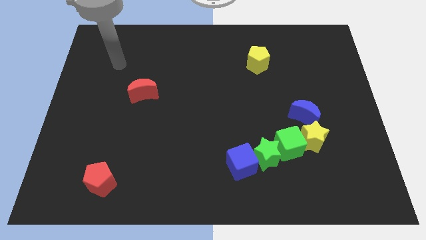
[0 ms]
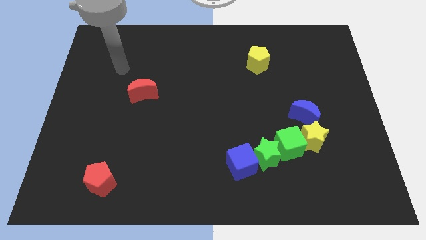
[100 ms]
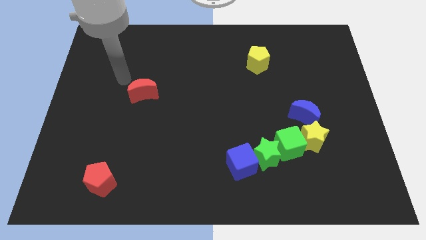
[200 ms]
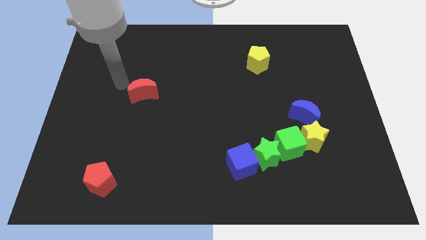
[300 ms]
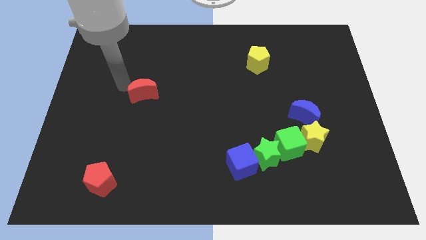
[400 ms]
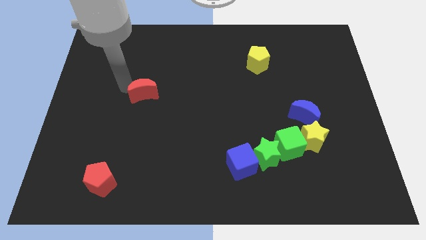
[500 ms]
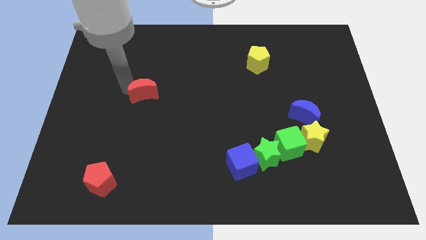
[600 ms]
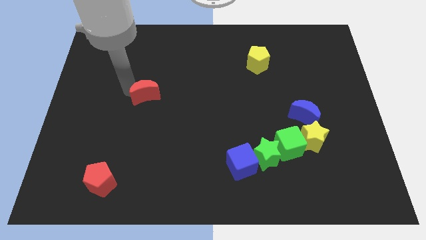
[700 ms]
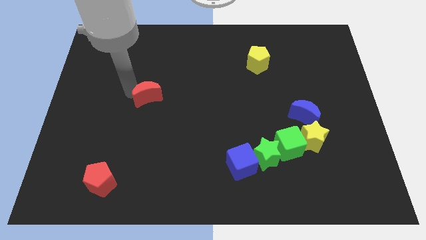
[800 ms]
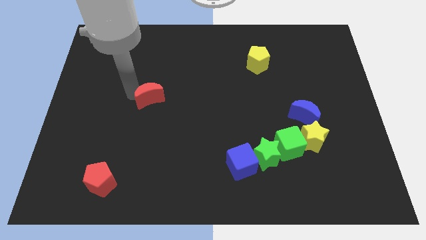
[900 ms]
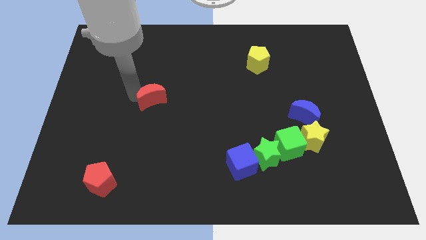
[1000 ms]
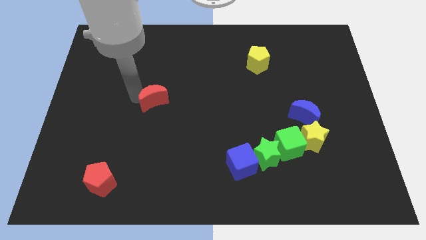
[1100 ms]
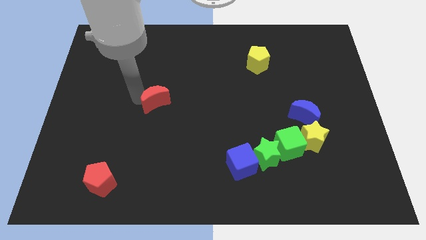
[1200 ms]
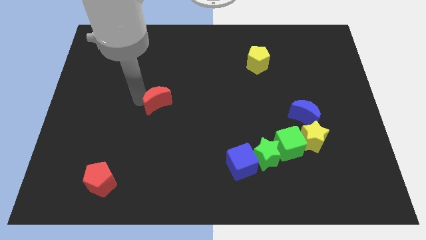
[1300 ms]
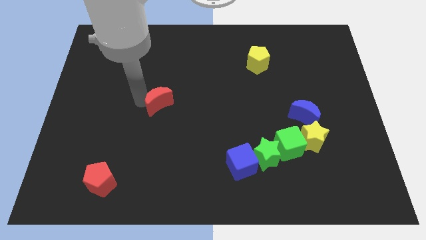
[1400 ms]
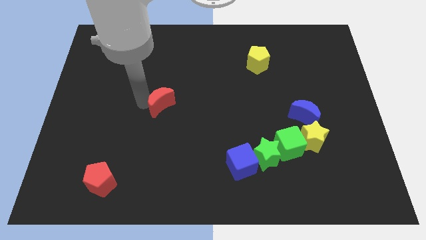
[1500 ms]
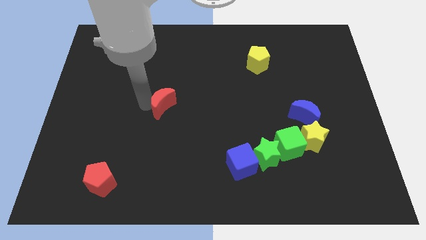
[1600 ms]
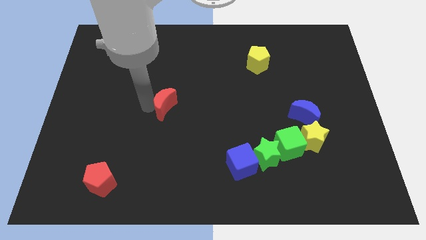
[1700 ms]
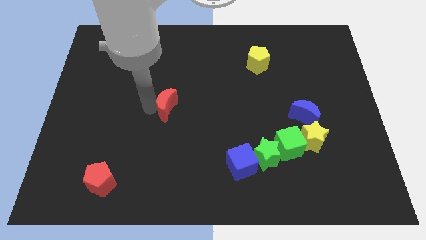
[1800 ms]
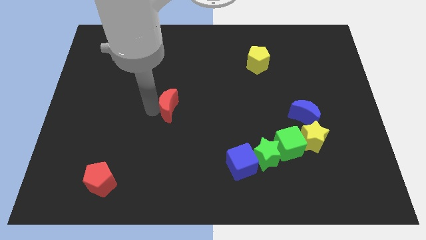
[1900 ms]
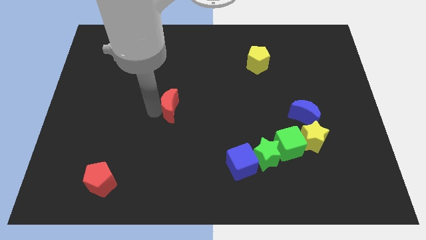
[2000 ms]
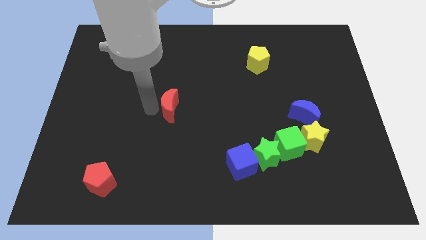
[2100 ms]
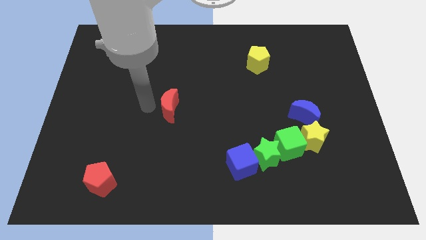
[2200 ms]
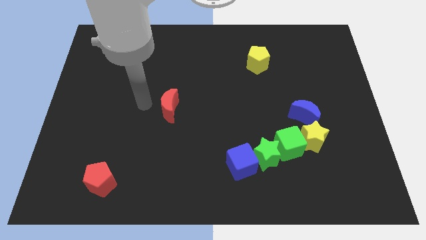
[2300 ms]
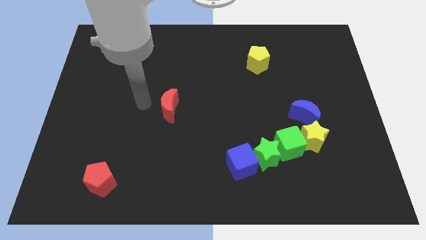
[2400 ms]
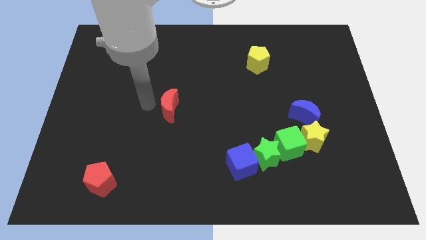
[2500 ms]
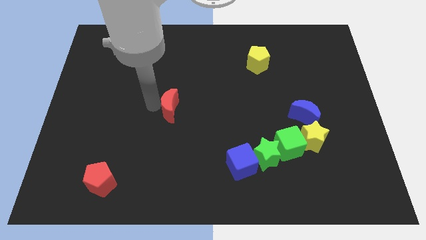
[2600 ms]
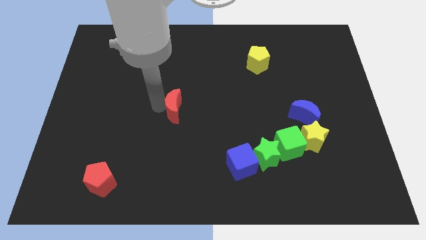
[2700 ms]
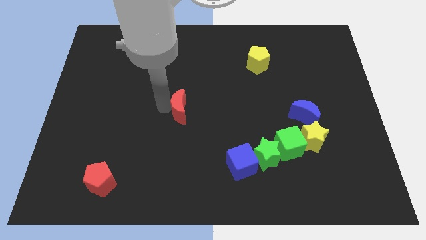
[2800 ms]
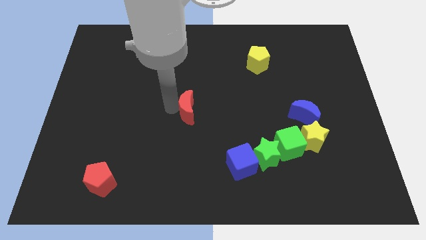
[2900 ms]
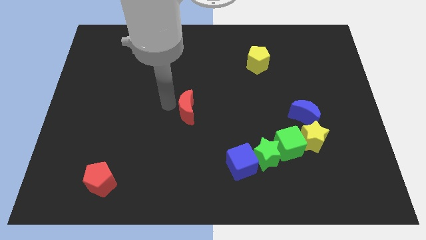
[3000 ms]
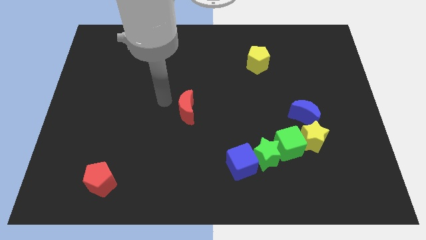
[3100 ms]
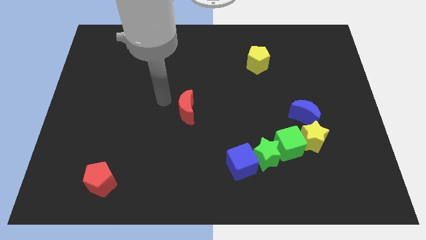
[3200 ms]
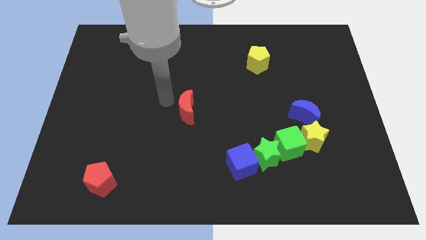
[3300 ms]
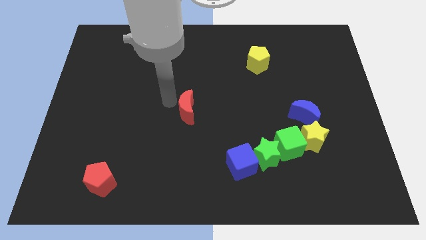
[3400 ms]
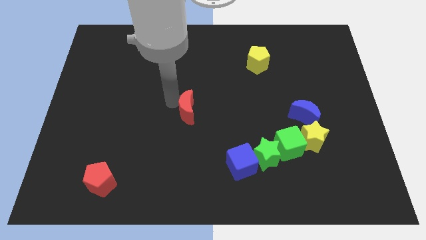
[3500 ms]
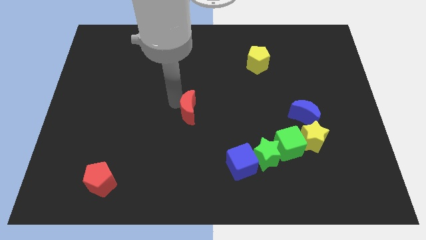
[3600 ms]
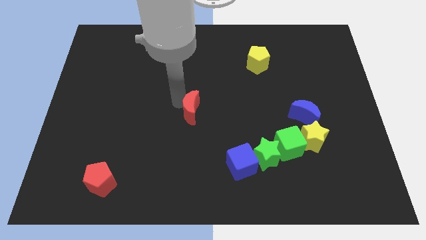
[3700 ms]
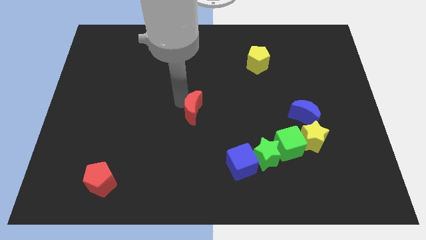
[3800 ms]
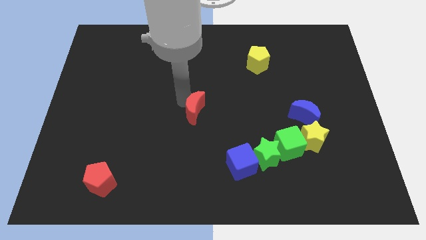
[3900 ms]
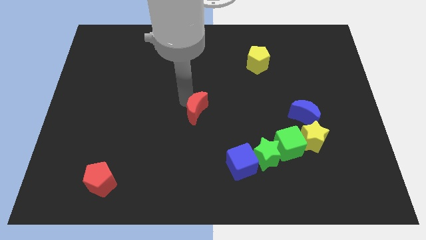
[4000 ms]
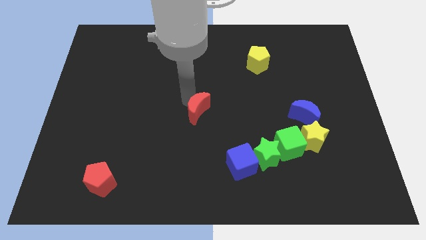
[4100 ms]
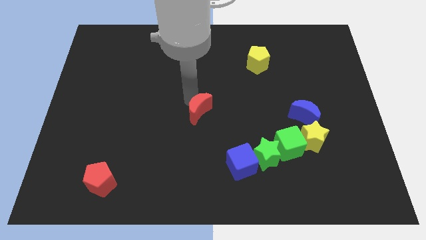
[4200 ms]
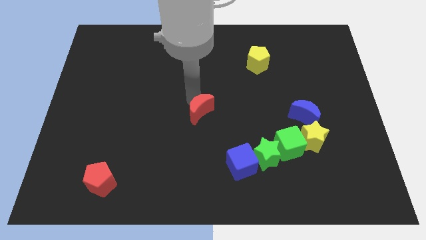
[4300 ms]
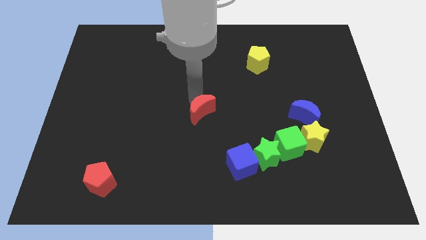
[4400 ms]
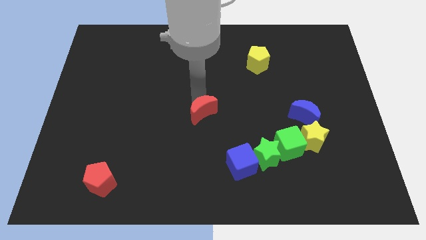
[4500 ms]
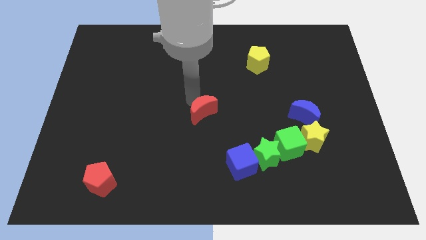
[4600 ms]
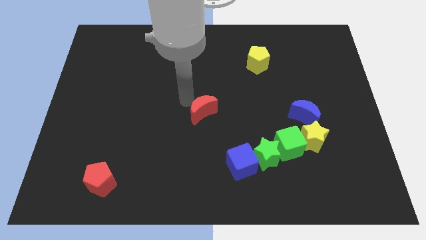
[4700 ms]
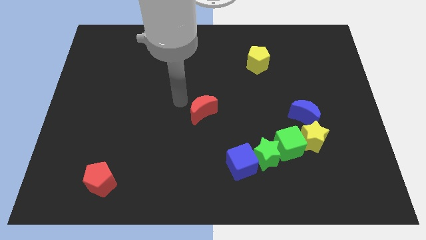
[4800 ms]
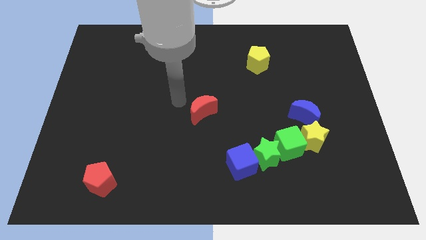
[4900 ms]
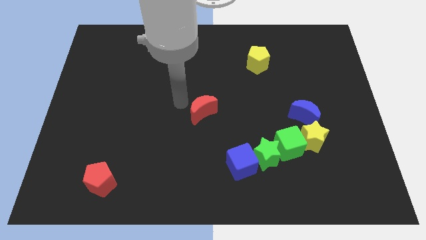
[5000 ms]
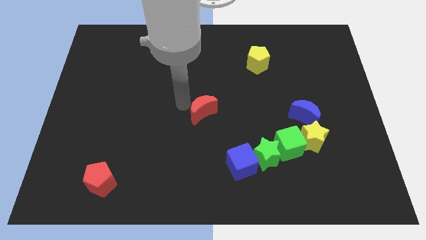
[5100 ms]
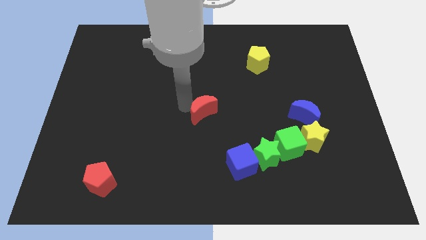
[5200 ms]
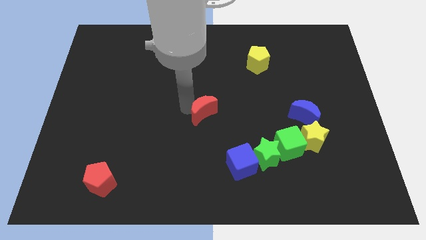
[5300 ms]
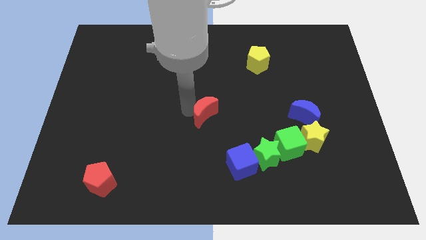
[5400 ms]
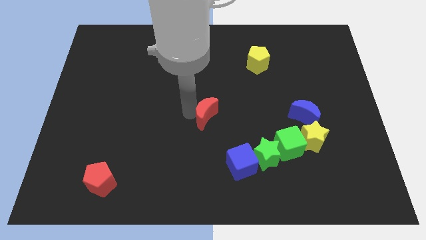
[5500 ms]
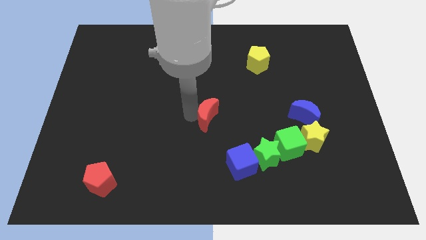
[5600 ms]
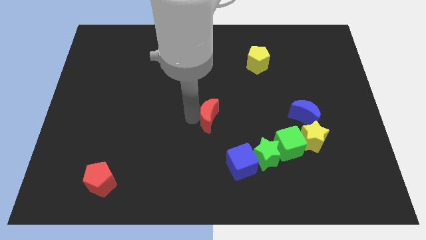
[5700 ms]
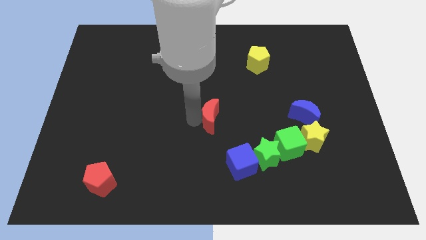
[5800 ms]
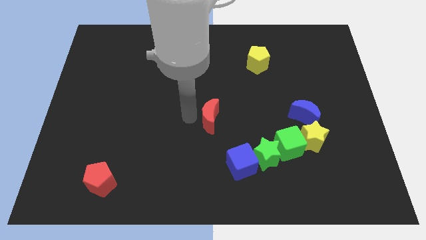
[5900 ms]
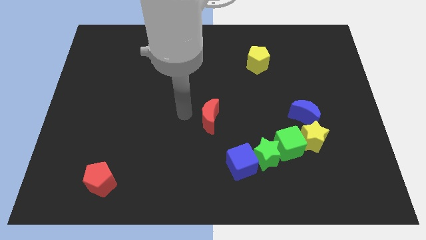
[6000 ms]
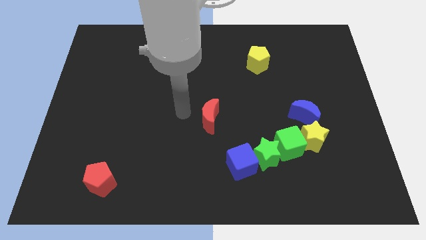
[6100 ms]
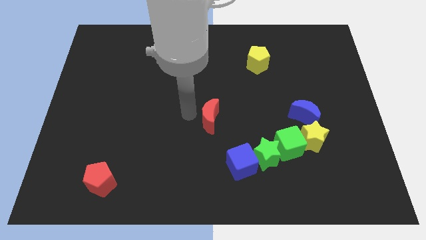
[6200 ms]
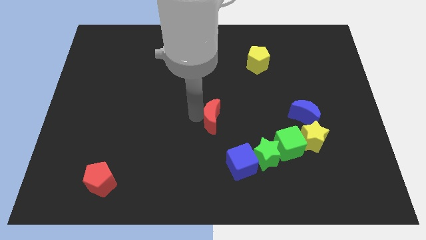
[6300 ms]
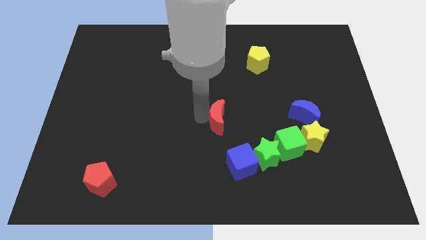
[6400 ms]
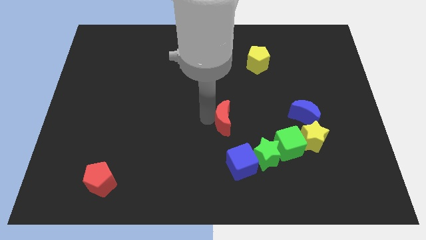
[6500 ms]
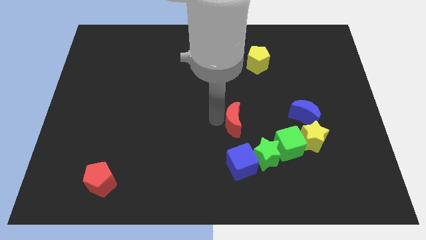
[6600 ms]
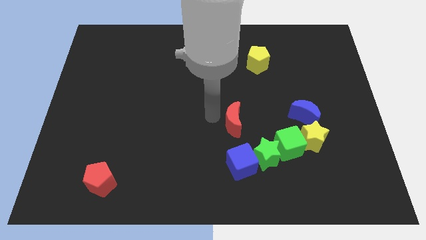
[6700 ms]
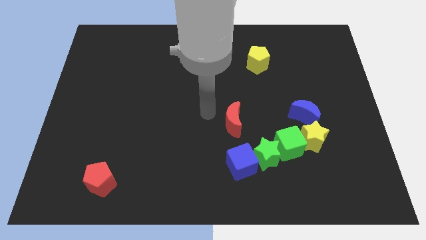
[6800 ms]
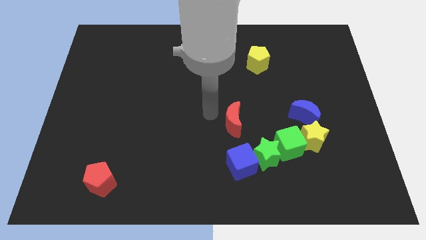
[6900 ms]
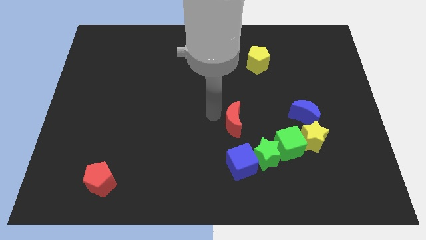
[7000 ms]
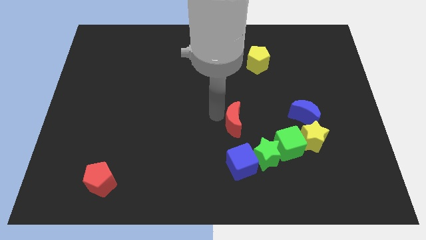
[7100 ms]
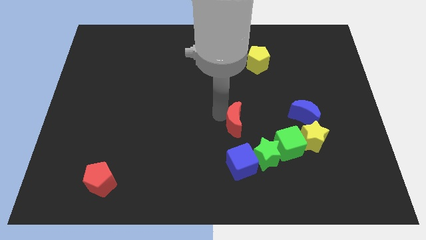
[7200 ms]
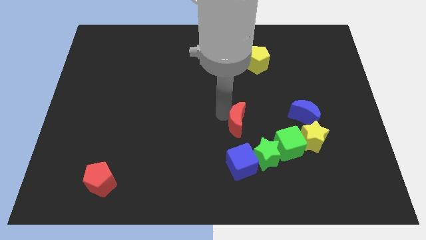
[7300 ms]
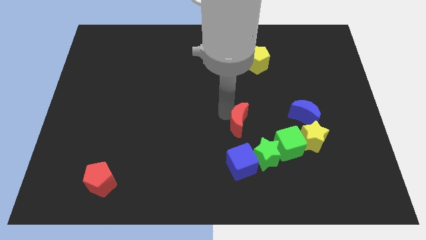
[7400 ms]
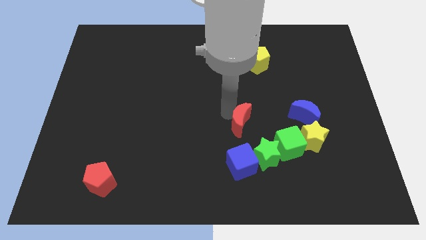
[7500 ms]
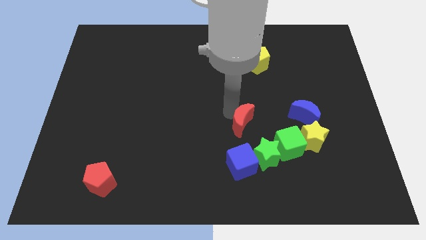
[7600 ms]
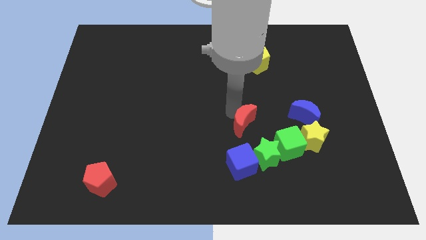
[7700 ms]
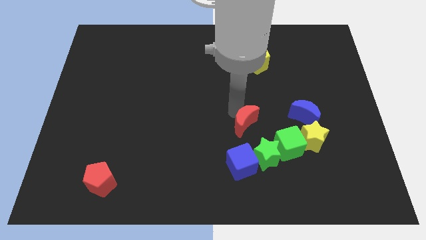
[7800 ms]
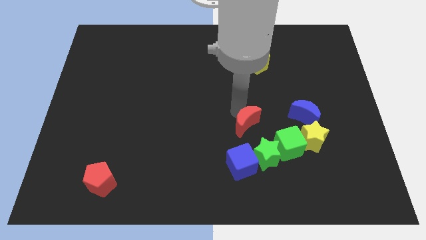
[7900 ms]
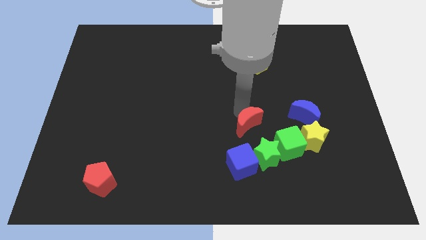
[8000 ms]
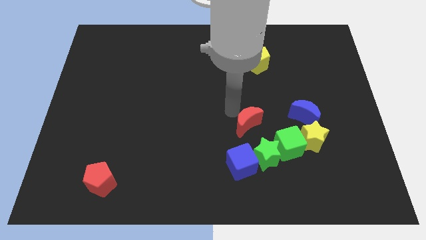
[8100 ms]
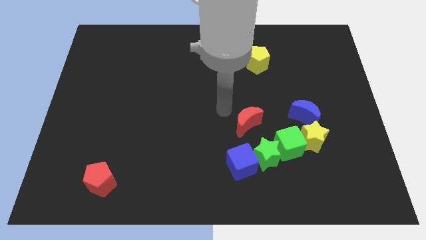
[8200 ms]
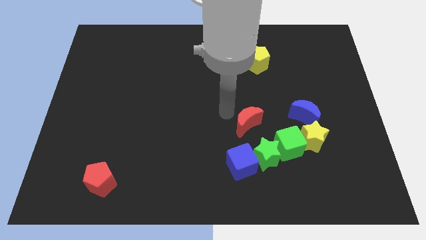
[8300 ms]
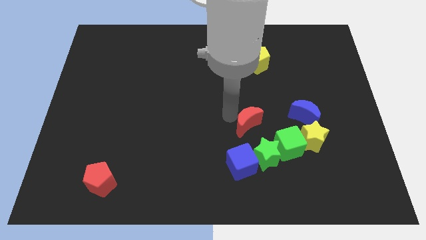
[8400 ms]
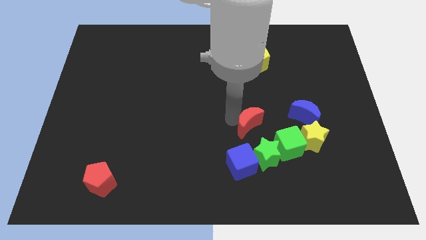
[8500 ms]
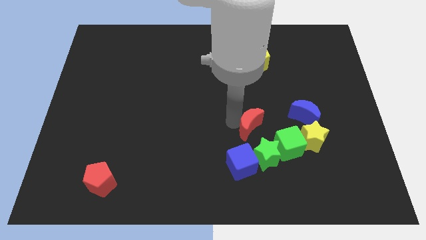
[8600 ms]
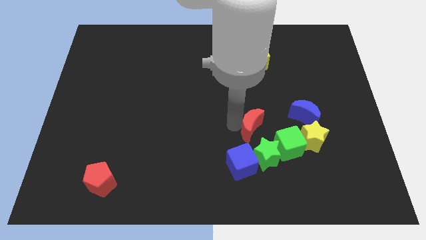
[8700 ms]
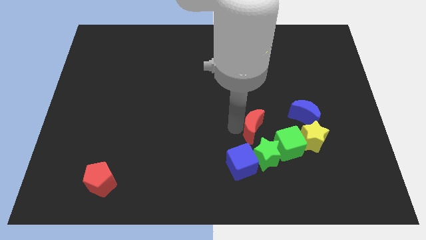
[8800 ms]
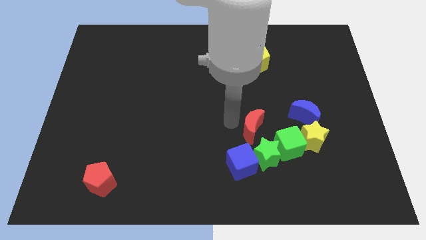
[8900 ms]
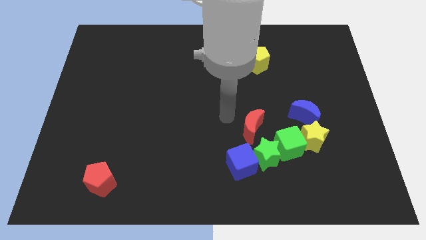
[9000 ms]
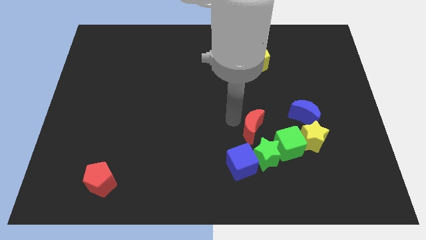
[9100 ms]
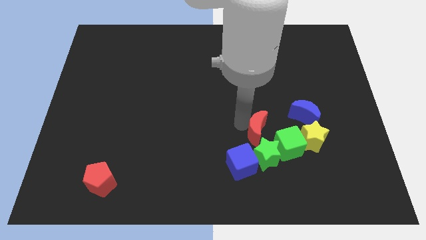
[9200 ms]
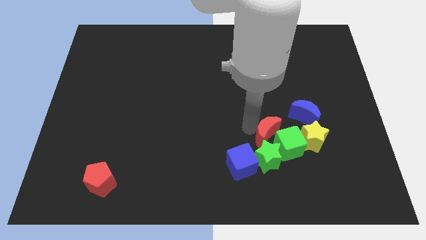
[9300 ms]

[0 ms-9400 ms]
slide the red moon towards the green cube
